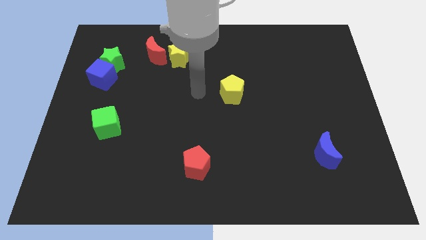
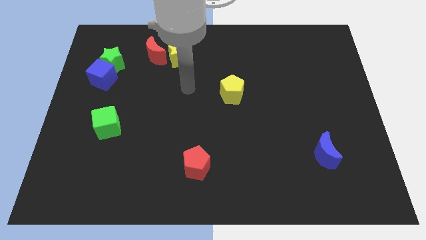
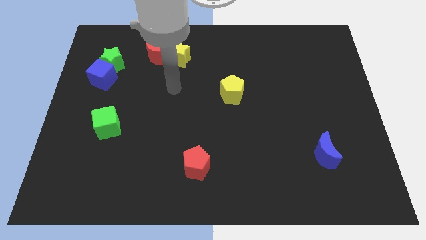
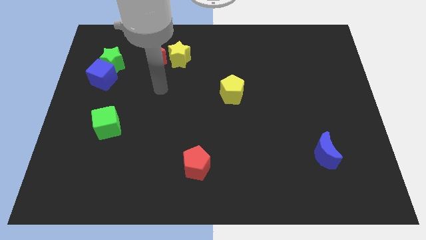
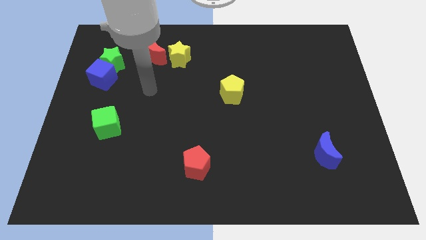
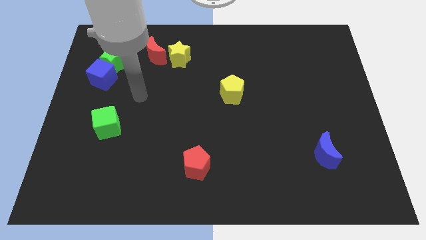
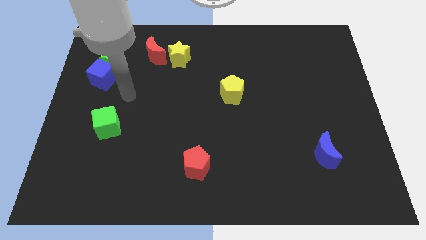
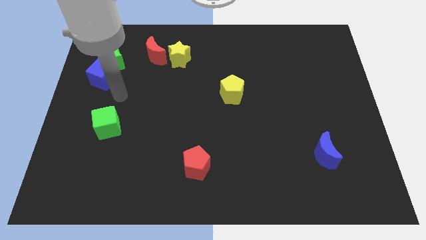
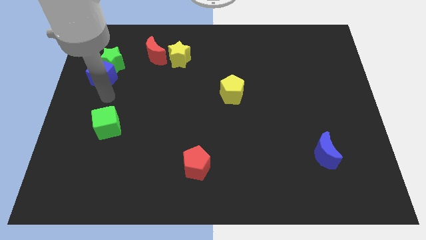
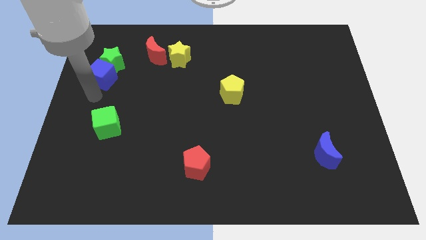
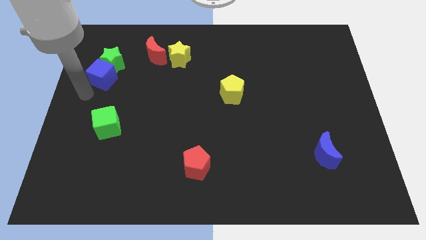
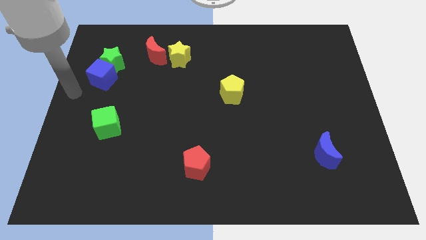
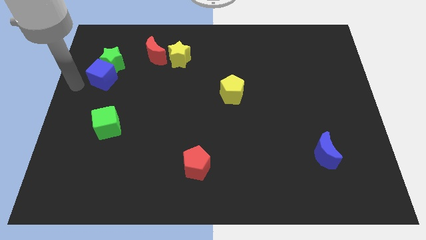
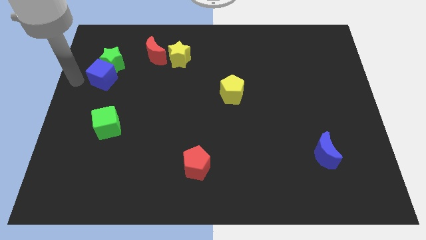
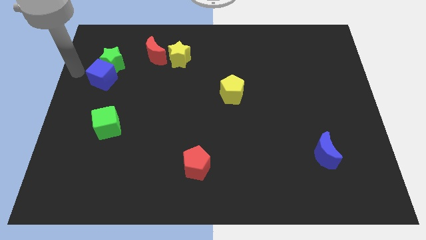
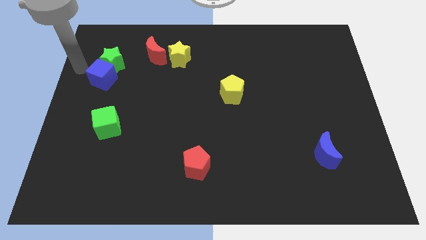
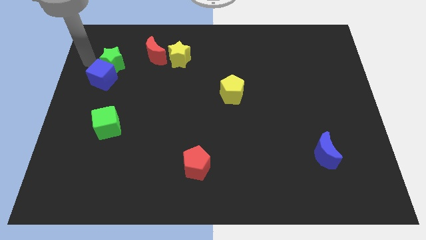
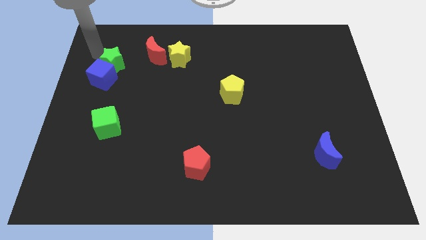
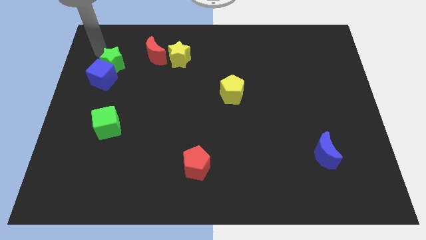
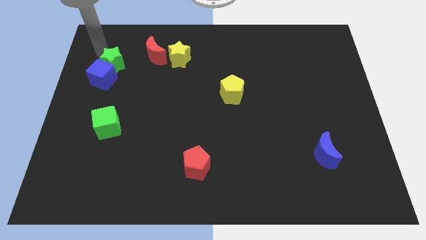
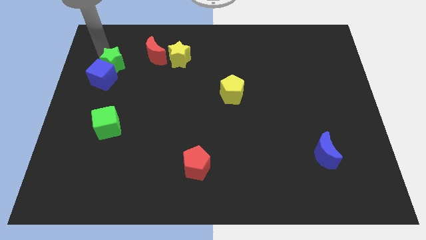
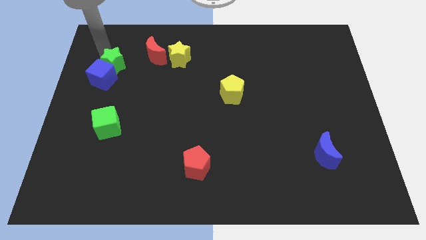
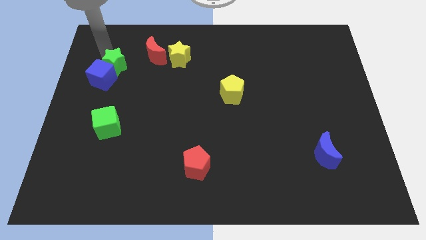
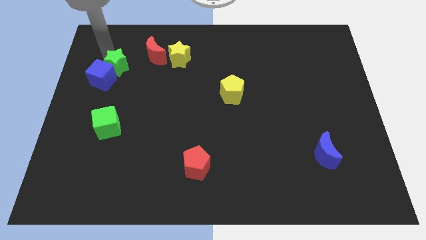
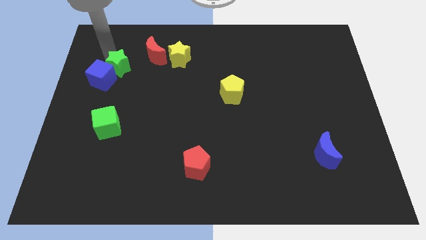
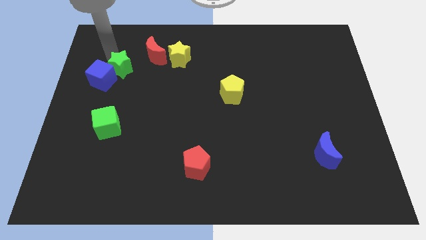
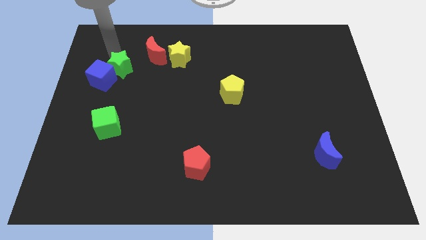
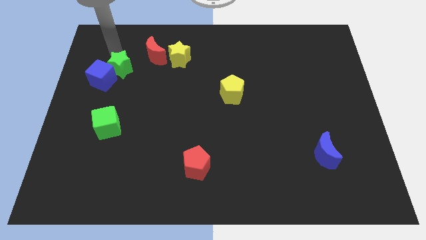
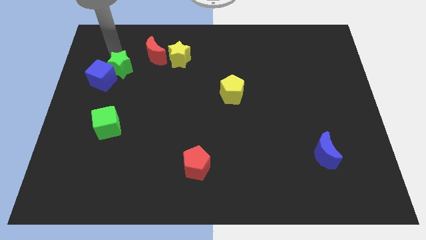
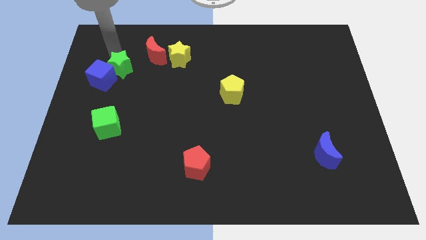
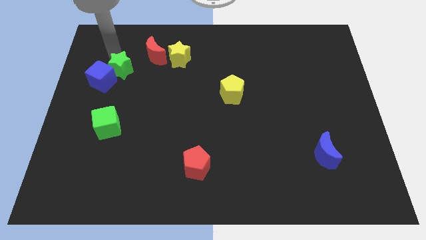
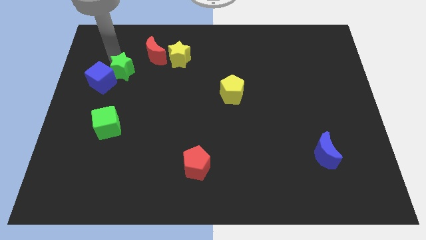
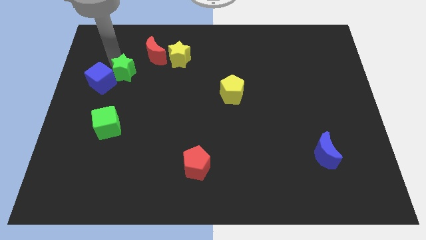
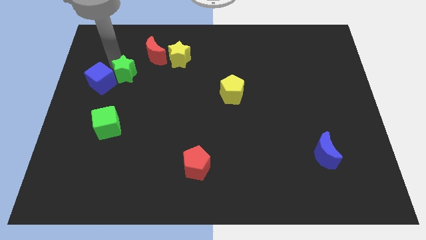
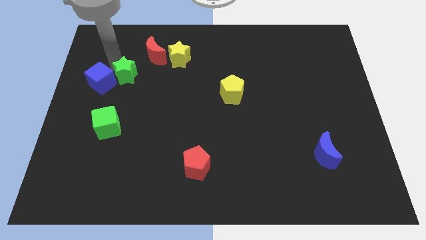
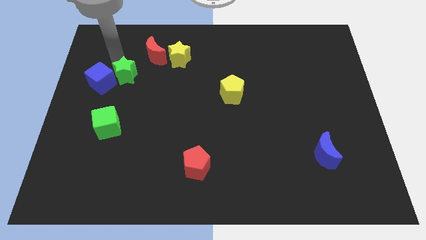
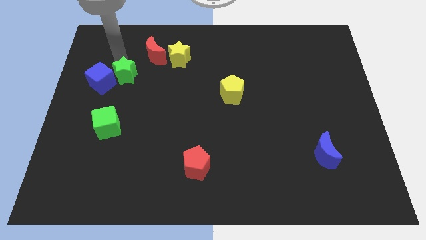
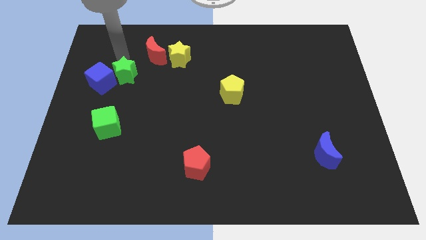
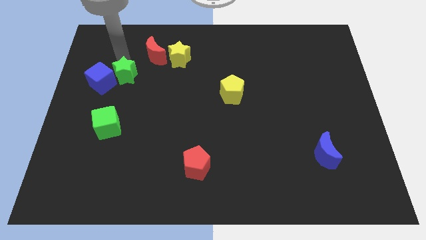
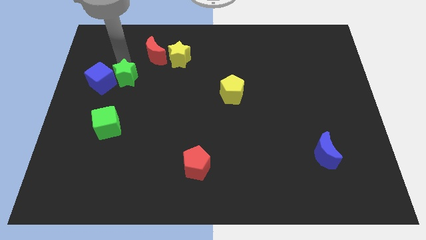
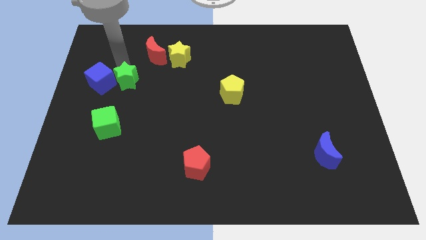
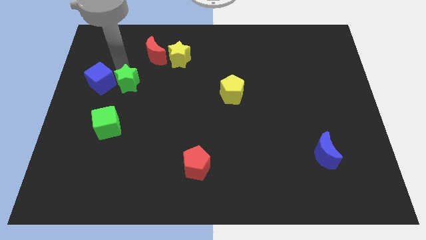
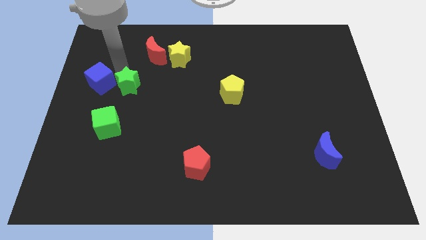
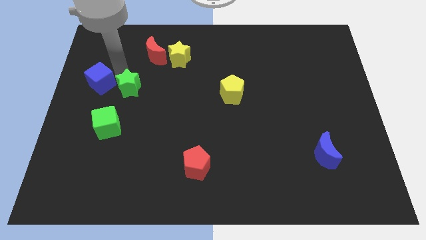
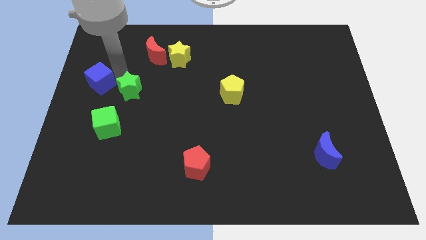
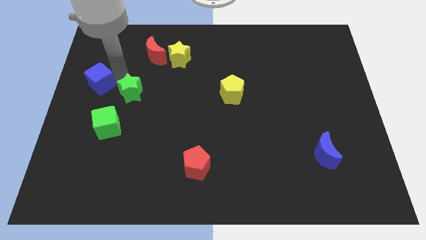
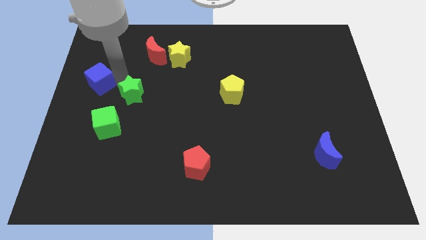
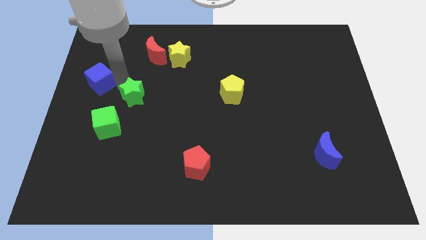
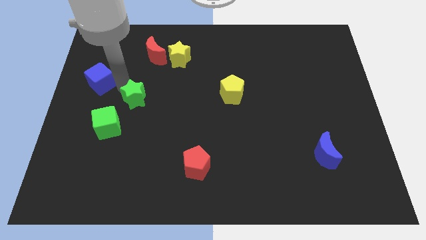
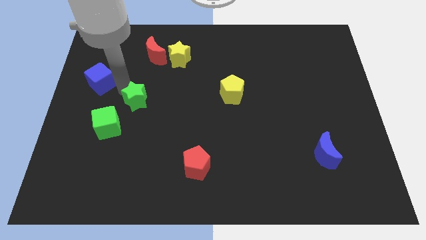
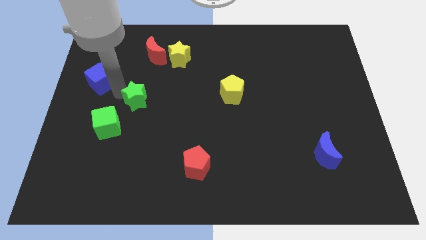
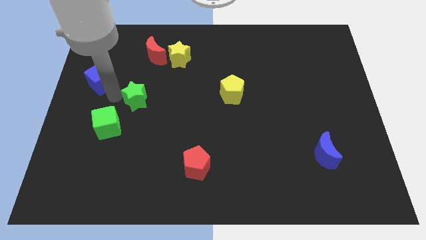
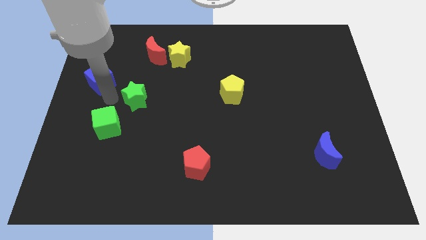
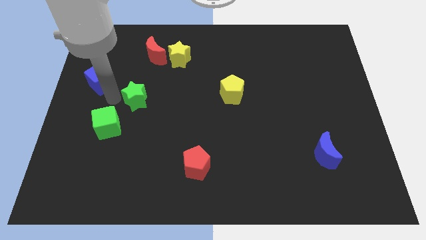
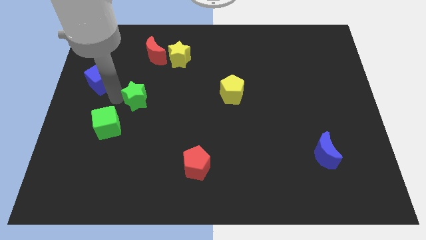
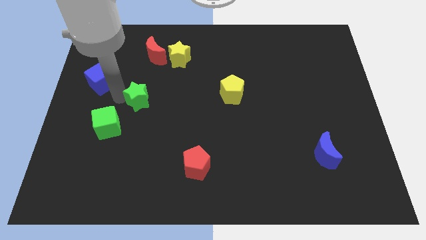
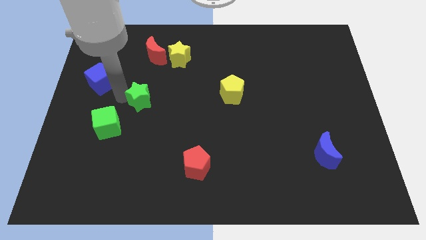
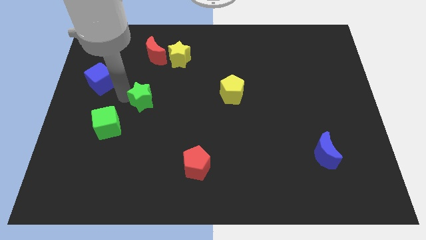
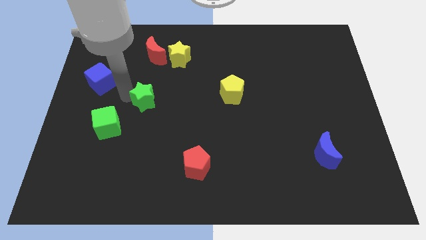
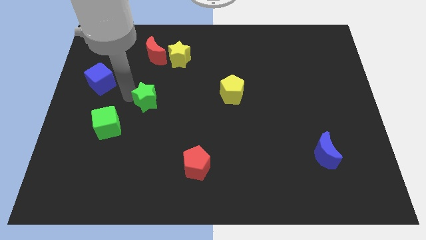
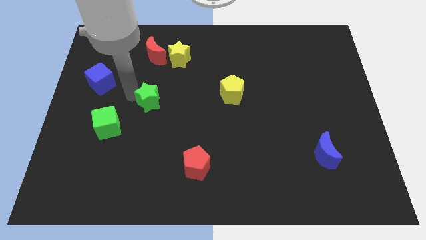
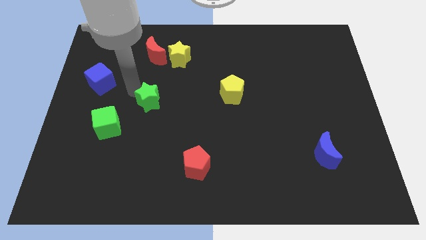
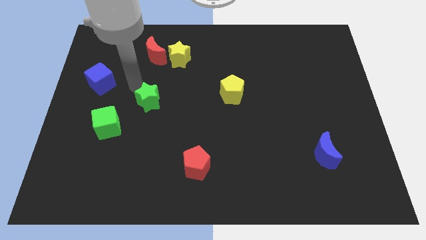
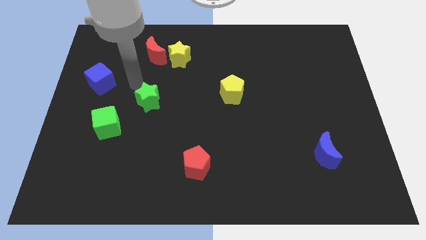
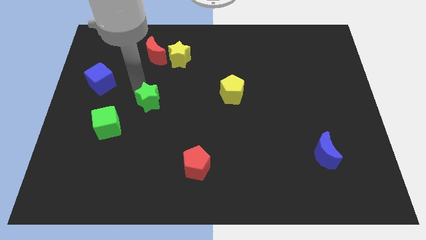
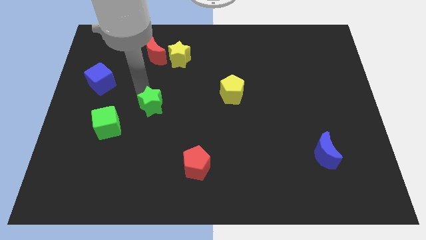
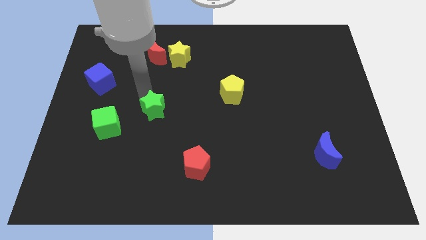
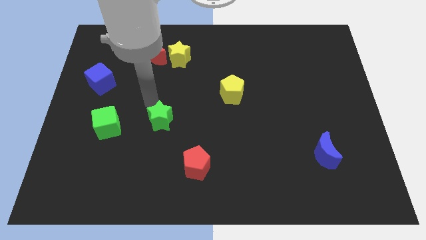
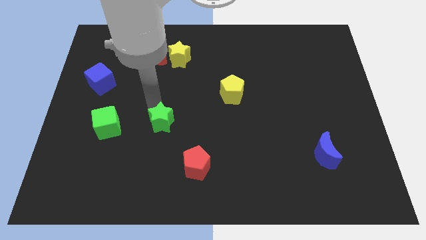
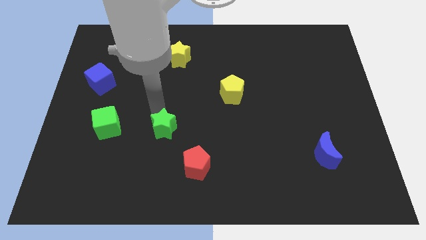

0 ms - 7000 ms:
put the green star diagonally up and to the left of the red pentagon
